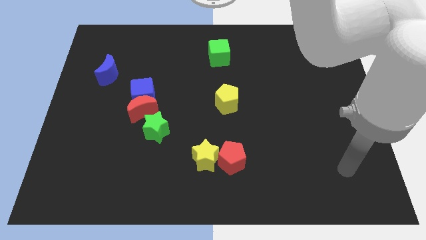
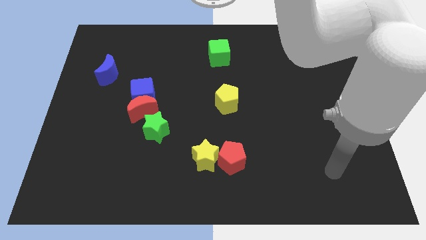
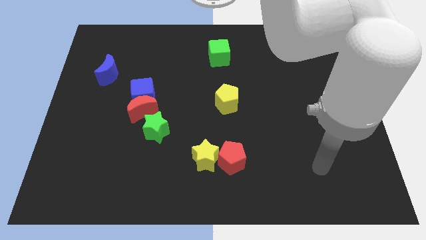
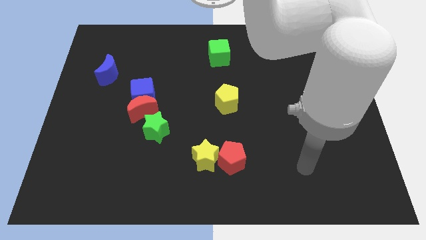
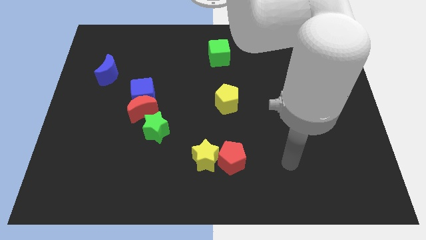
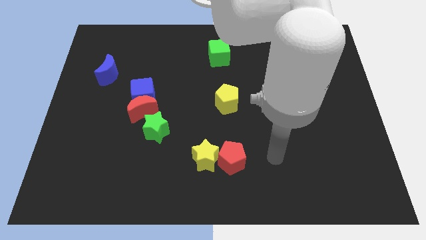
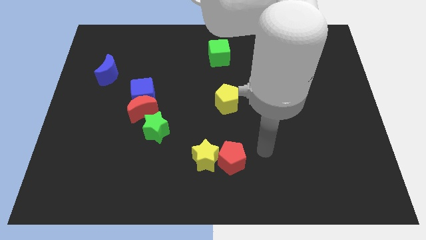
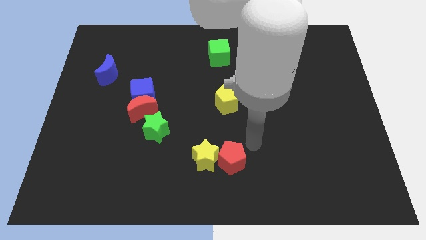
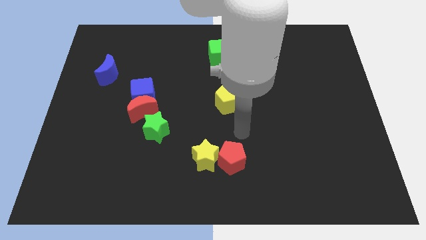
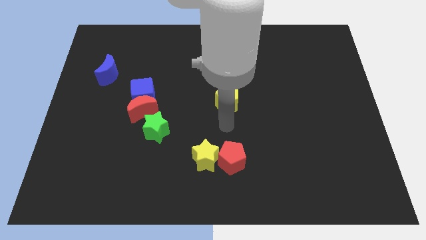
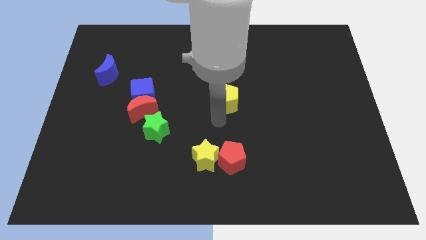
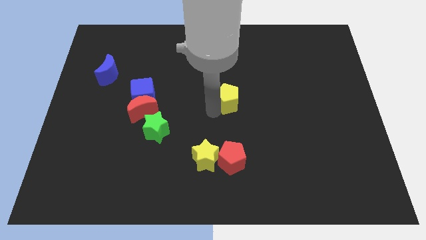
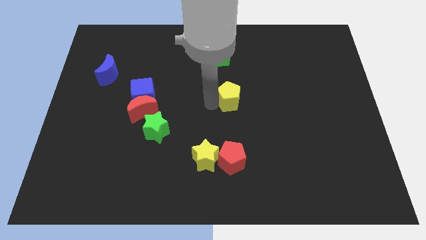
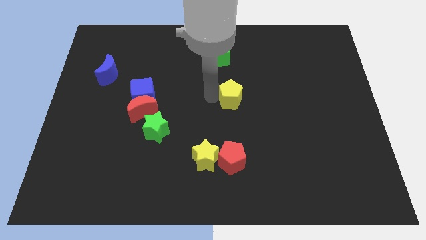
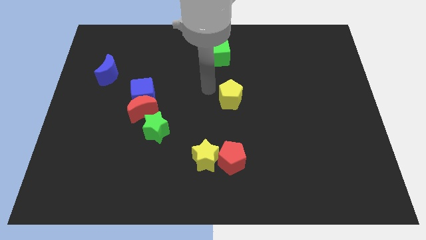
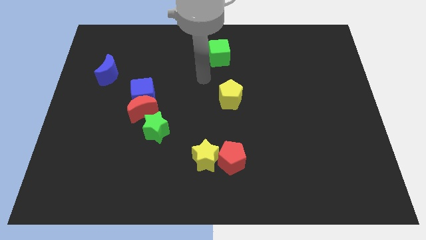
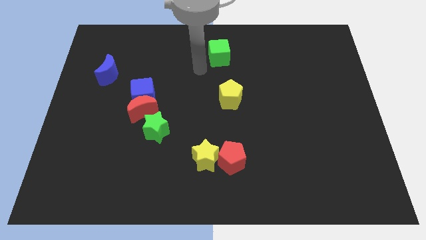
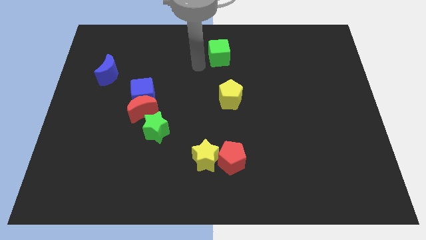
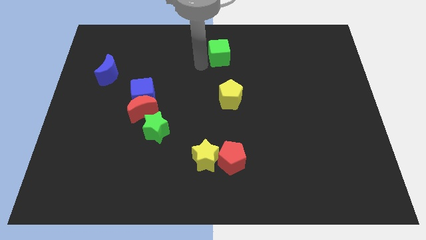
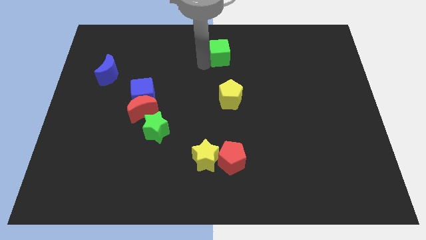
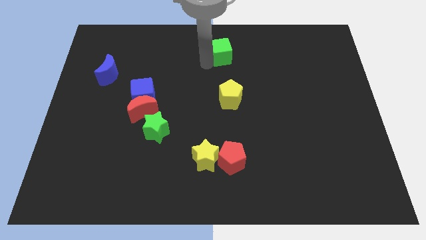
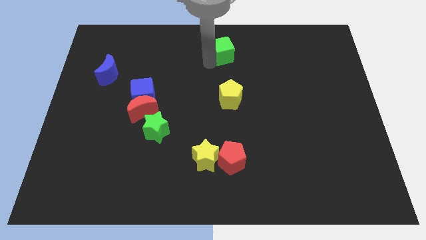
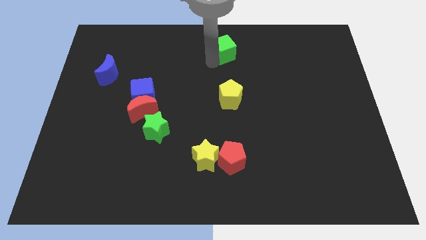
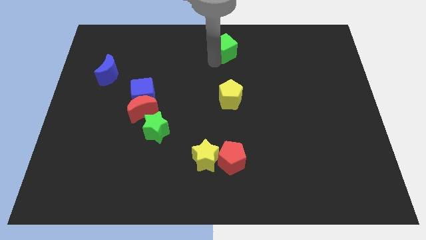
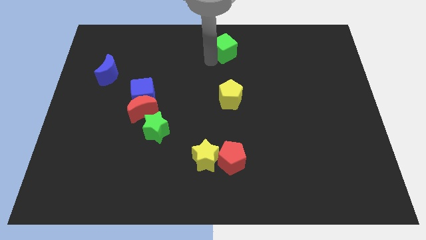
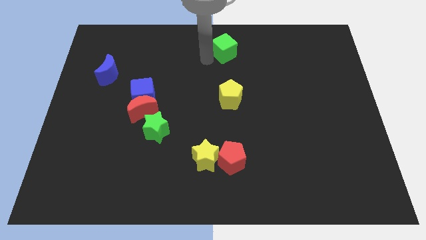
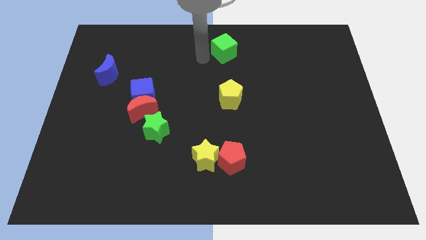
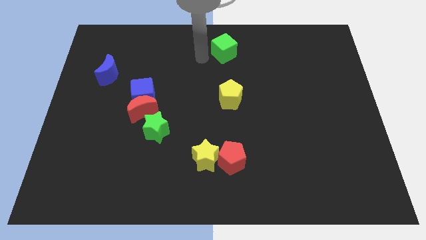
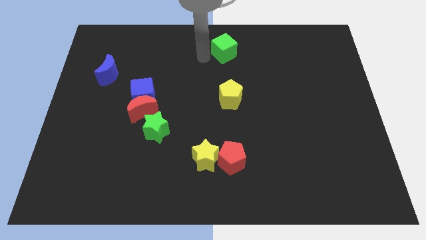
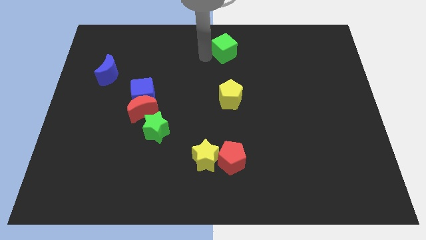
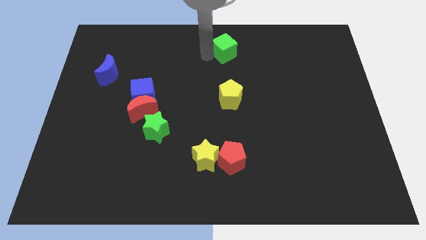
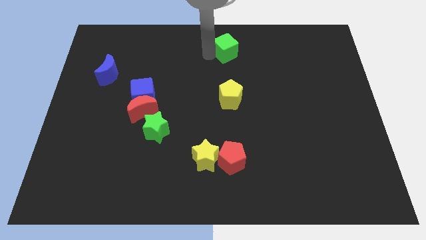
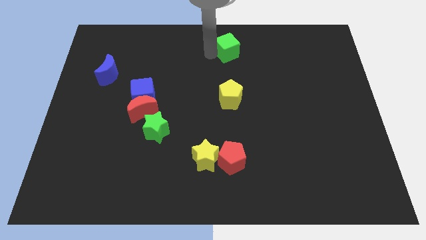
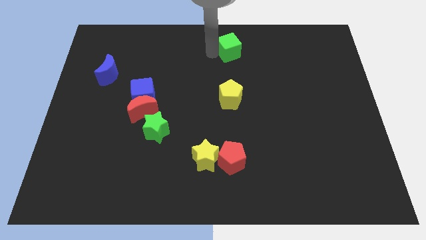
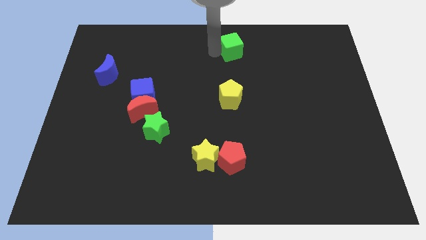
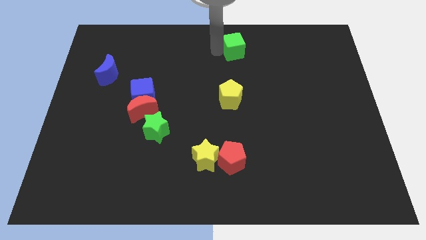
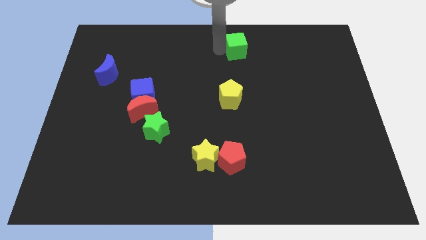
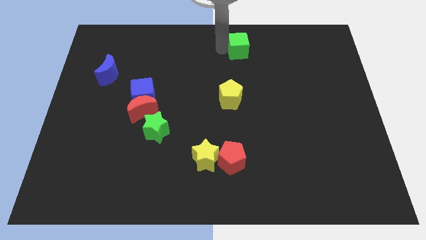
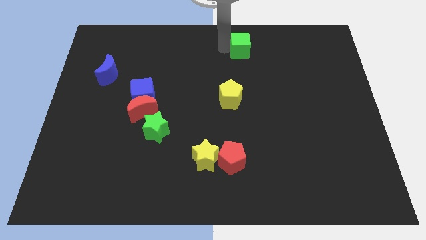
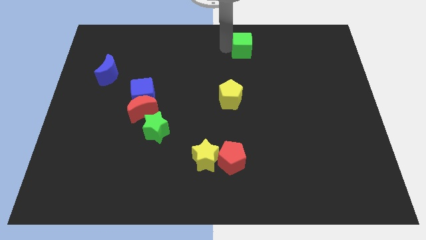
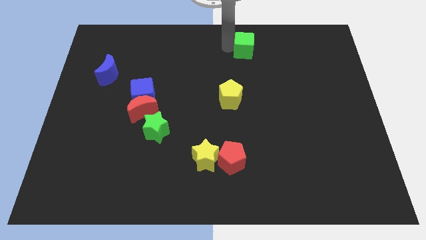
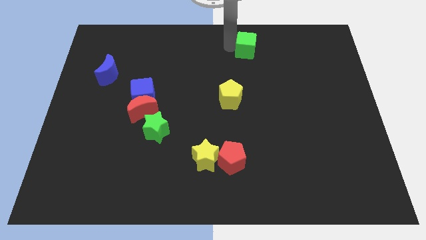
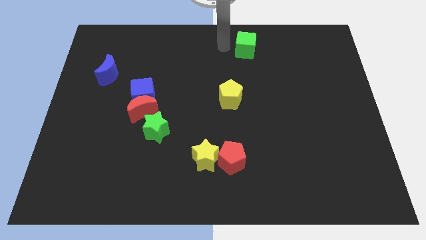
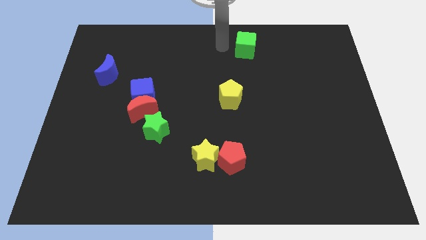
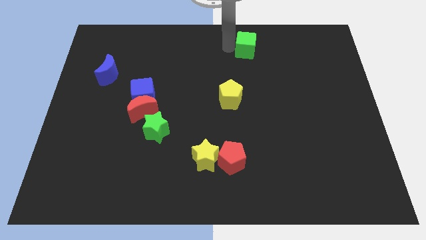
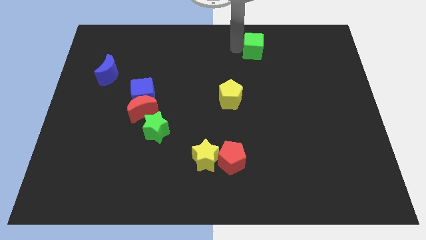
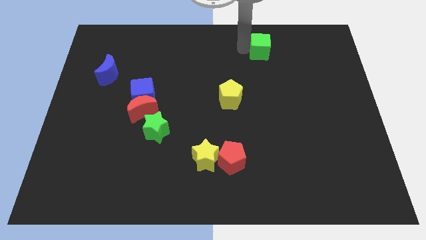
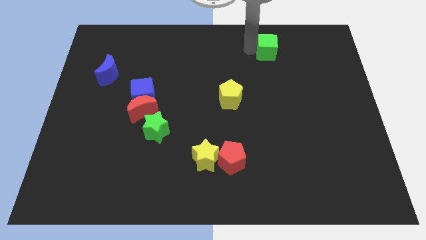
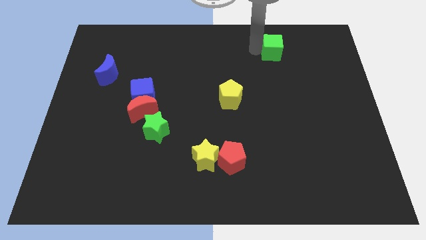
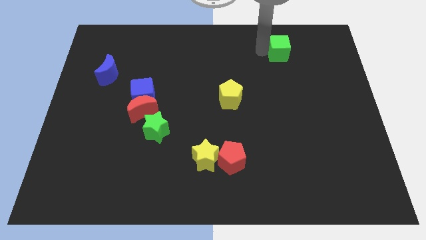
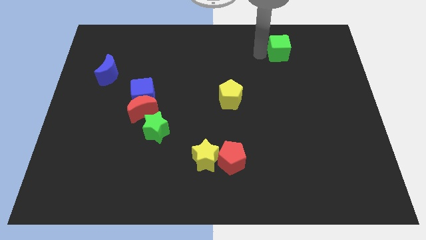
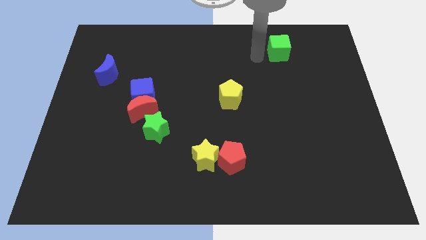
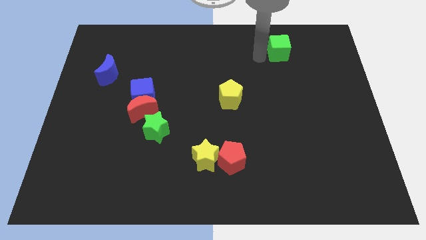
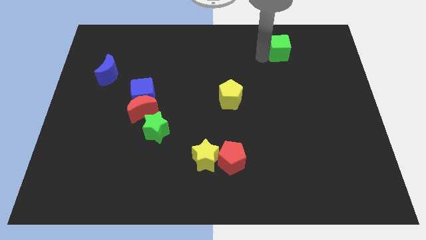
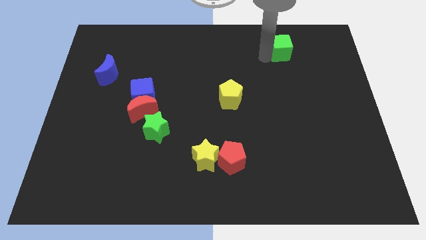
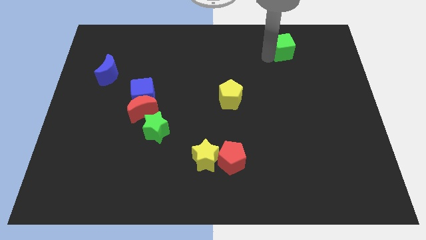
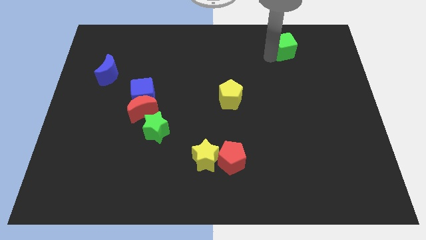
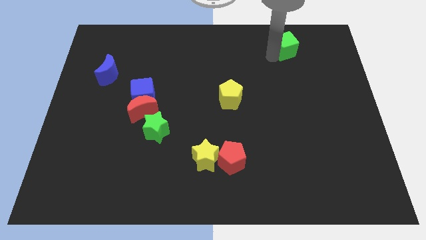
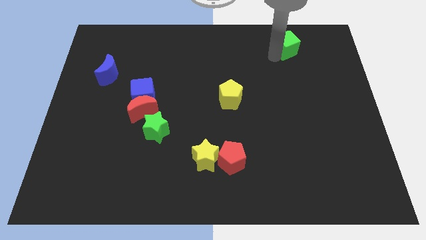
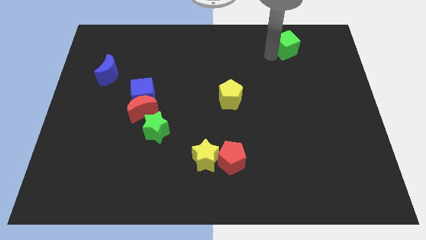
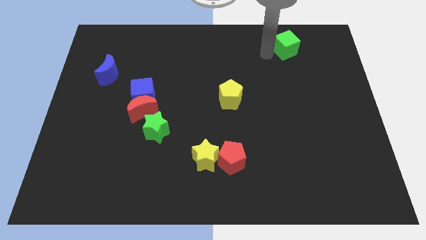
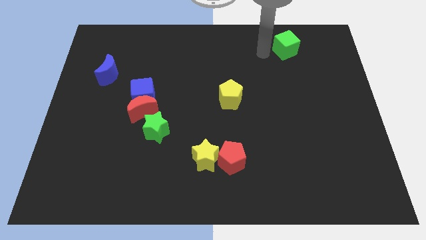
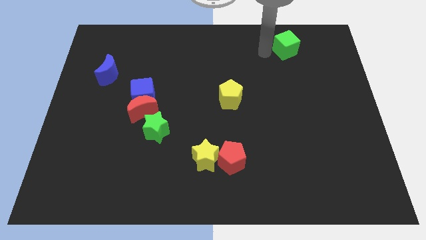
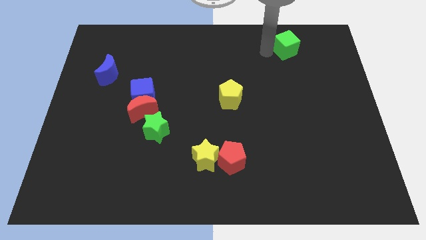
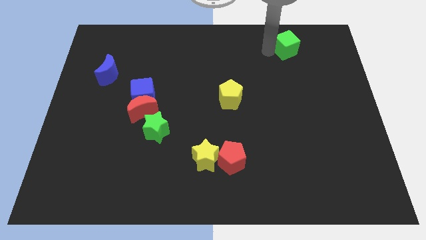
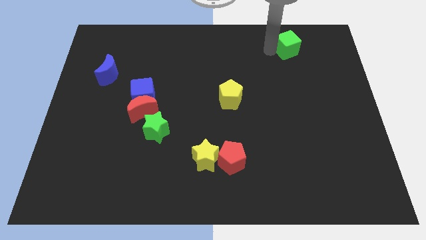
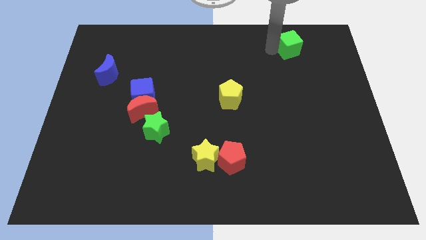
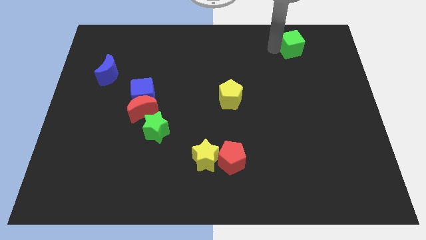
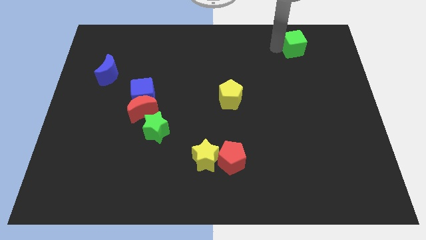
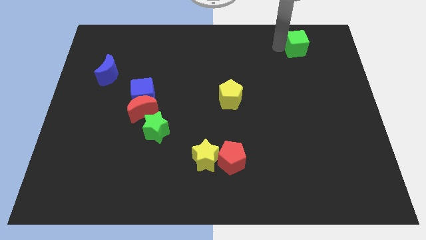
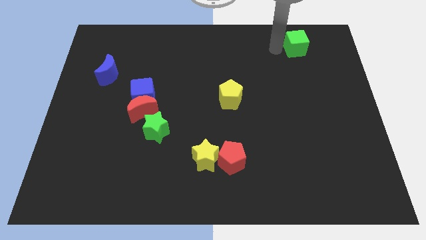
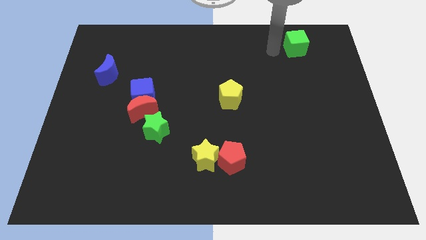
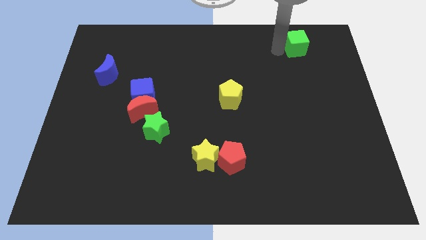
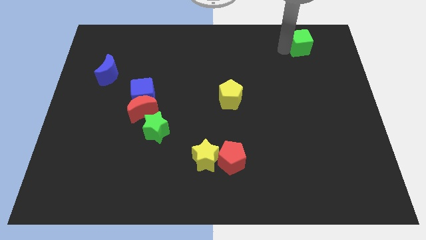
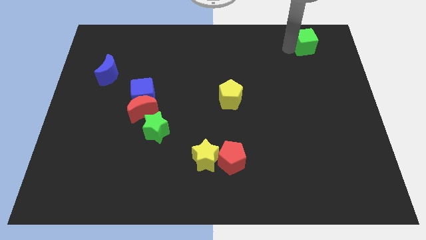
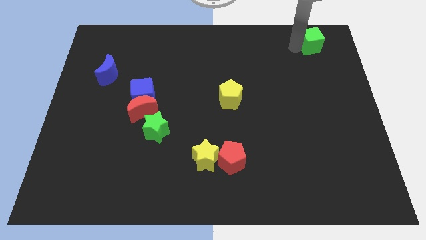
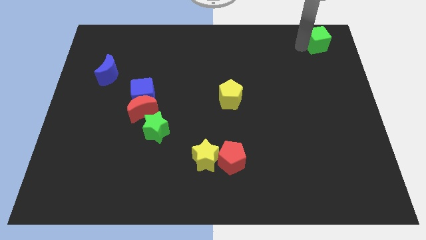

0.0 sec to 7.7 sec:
push the green cube to the upper right corner
